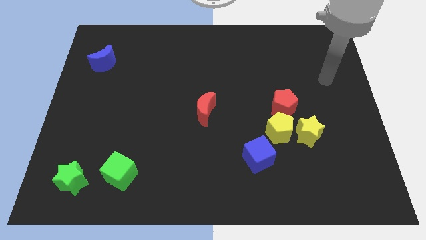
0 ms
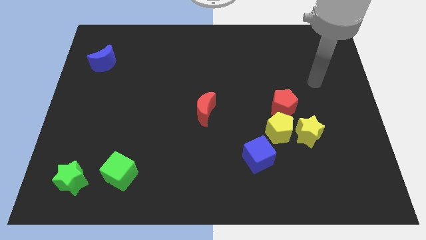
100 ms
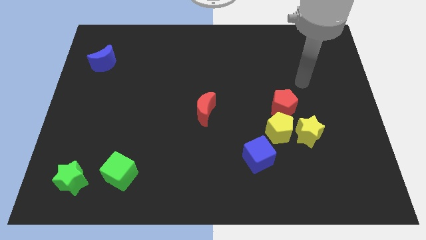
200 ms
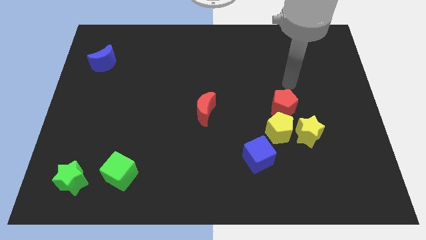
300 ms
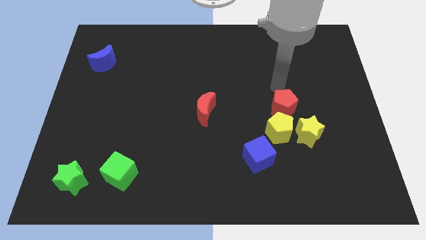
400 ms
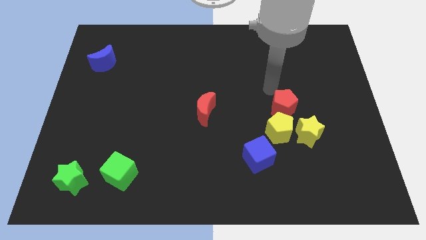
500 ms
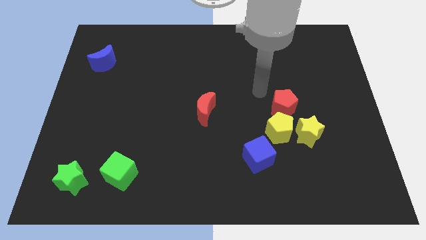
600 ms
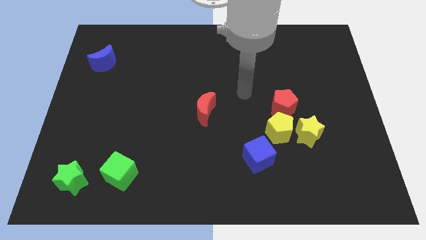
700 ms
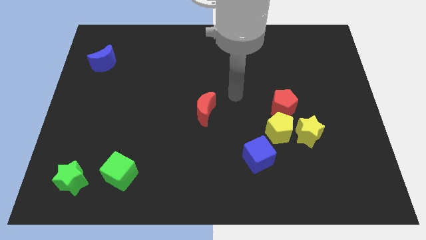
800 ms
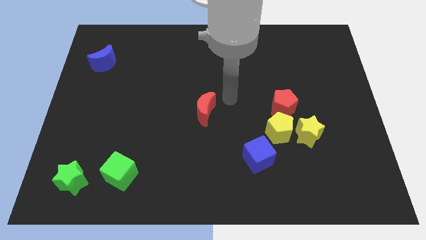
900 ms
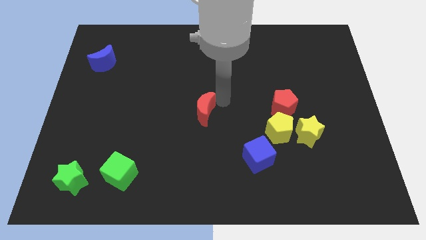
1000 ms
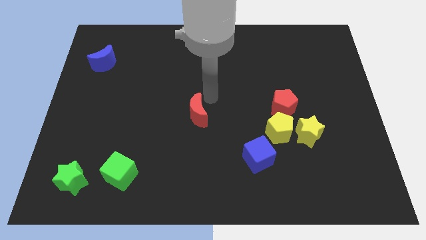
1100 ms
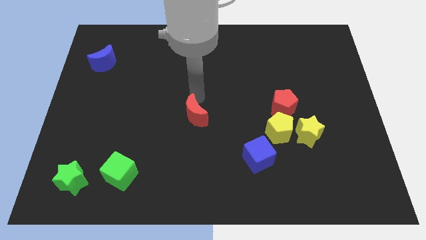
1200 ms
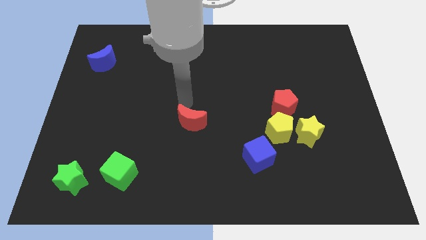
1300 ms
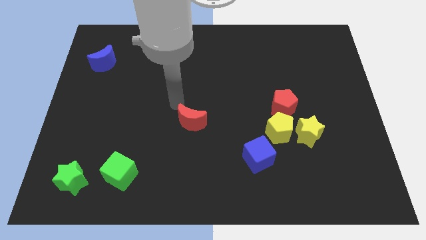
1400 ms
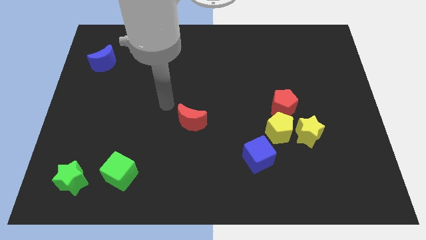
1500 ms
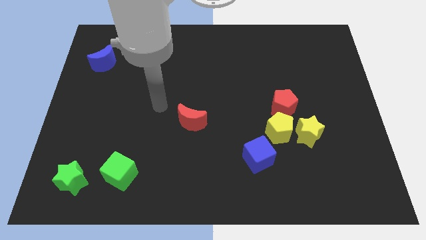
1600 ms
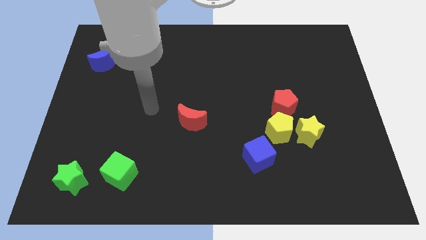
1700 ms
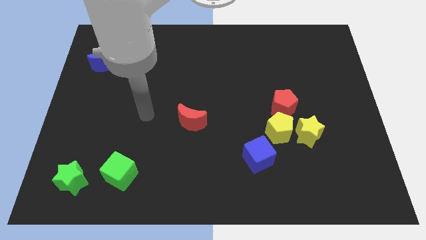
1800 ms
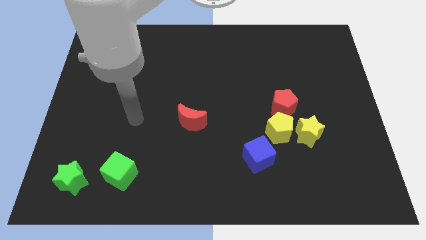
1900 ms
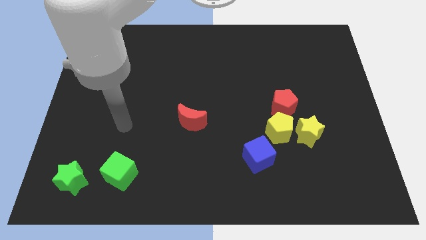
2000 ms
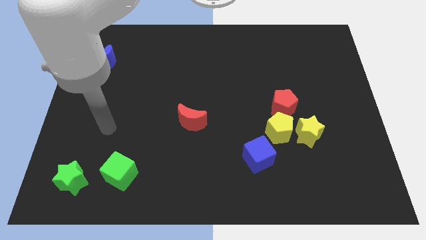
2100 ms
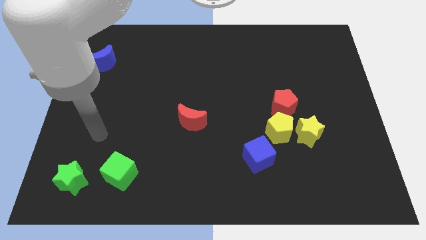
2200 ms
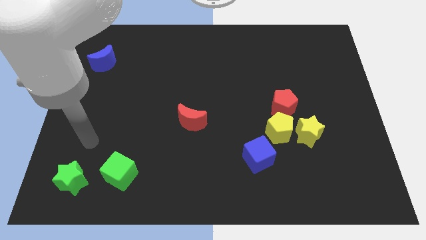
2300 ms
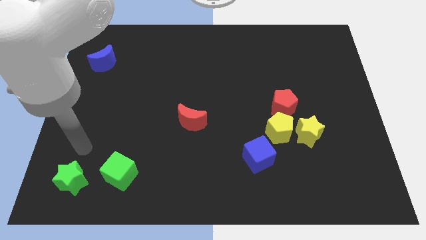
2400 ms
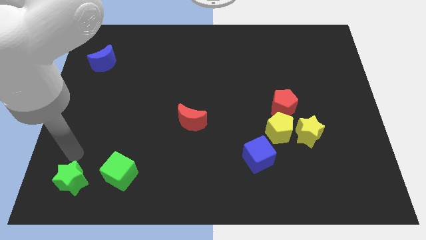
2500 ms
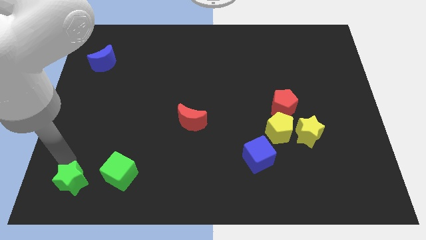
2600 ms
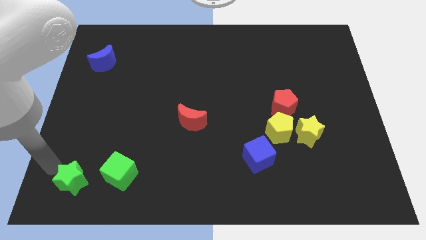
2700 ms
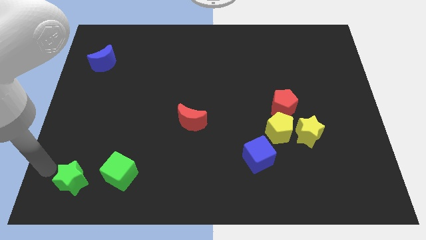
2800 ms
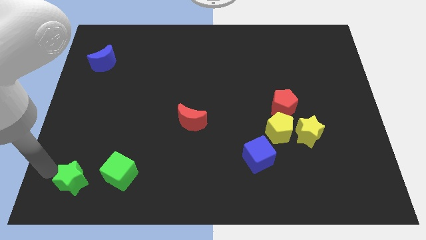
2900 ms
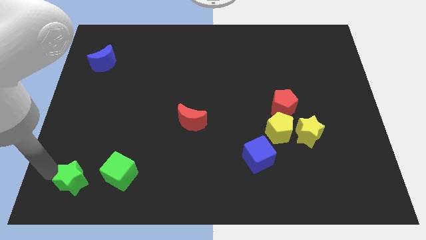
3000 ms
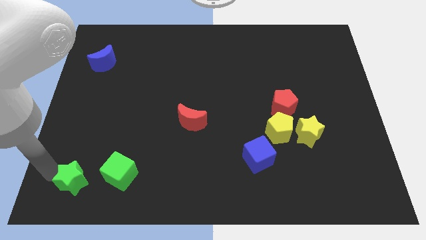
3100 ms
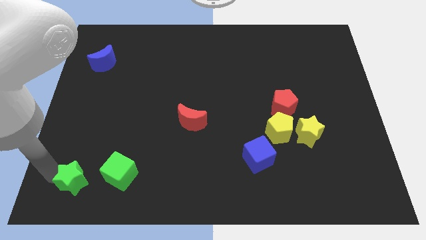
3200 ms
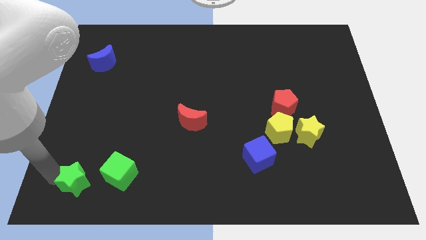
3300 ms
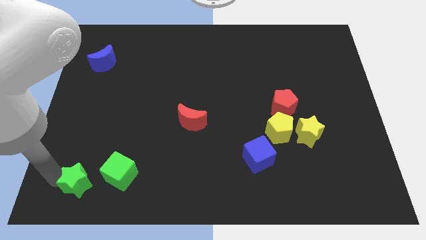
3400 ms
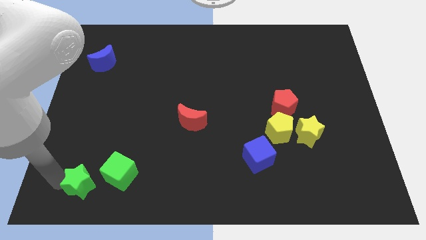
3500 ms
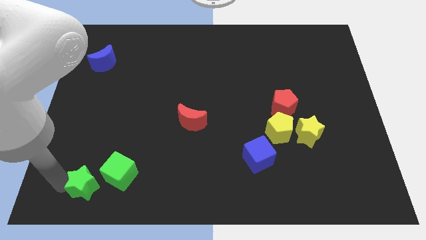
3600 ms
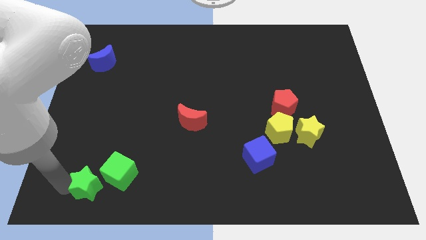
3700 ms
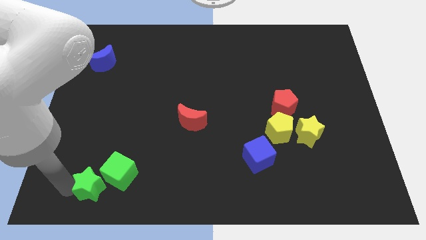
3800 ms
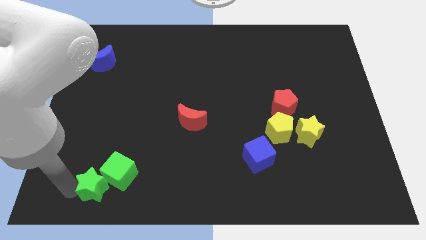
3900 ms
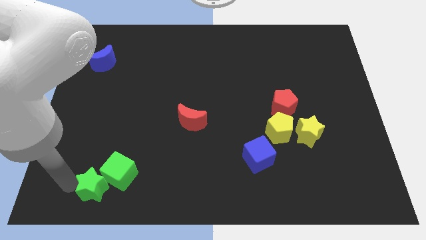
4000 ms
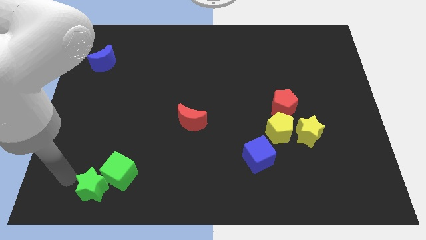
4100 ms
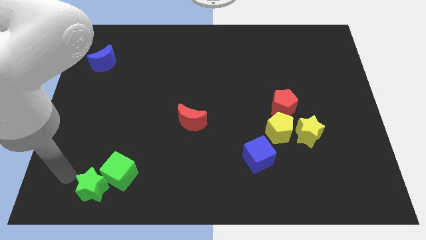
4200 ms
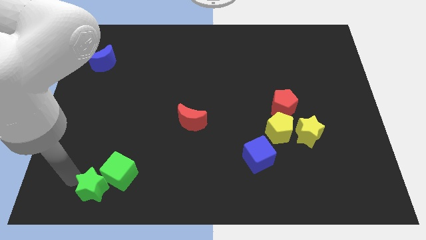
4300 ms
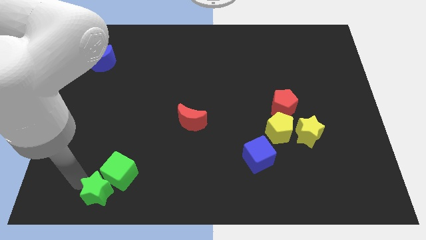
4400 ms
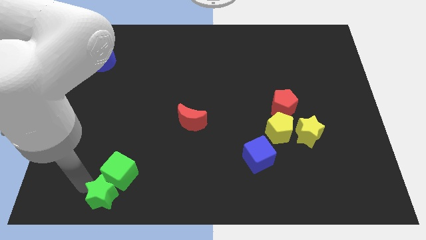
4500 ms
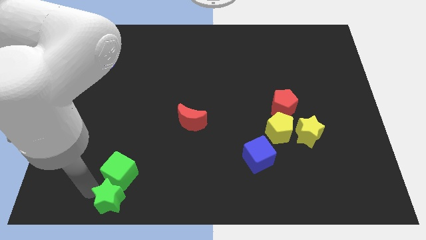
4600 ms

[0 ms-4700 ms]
move the green star somewhat to the right

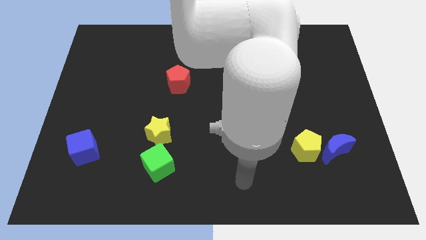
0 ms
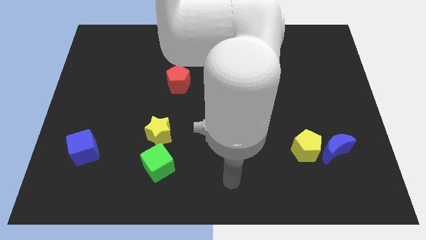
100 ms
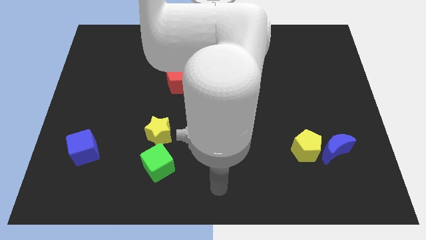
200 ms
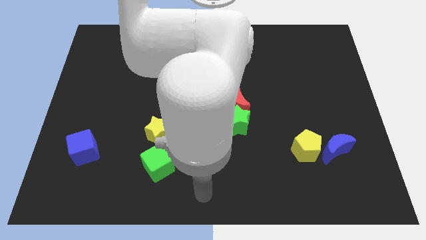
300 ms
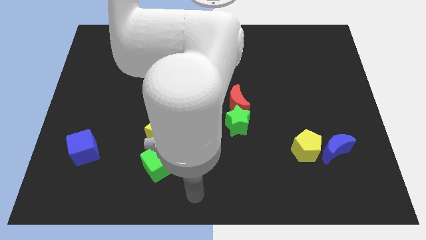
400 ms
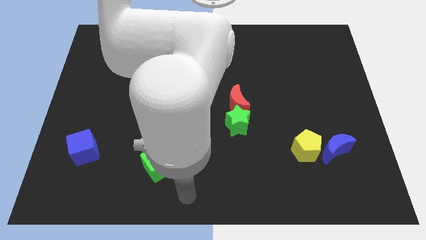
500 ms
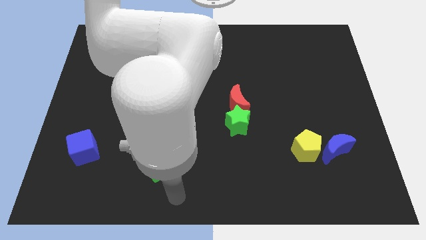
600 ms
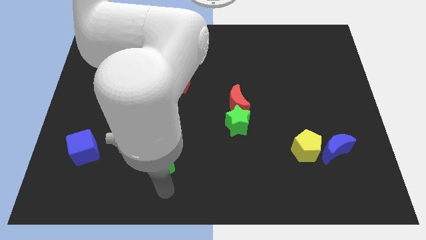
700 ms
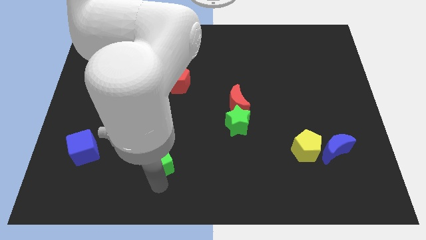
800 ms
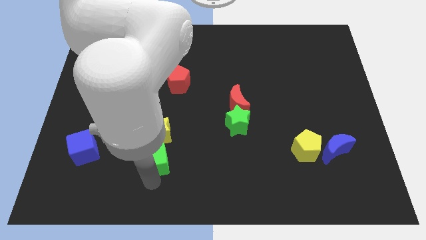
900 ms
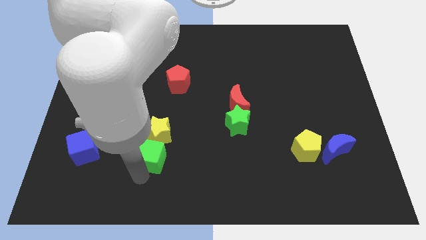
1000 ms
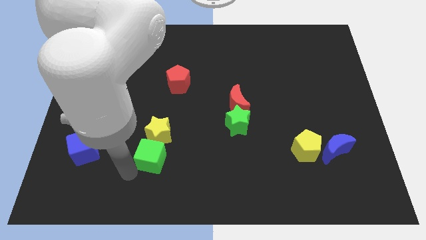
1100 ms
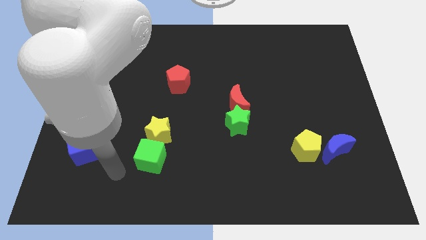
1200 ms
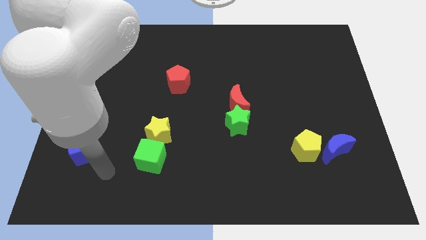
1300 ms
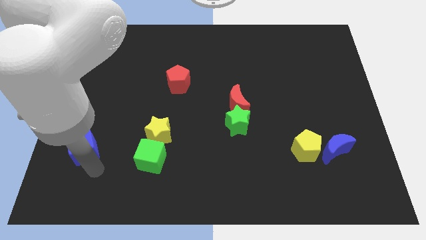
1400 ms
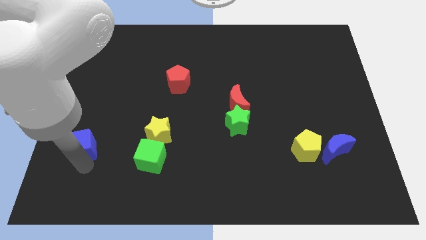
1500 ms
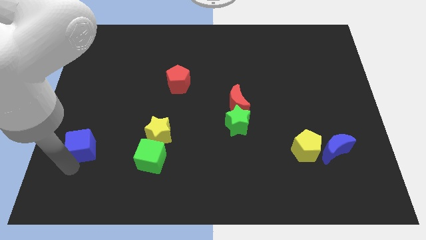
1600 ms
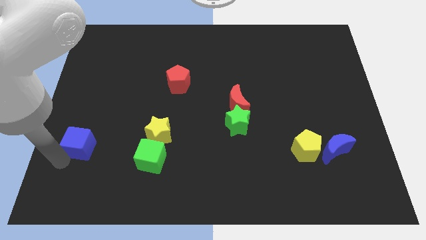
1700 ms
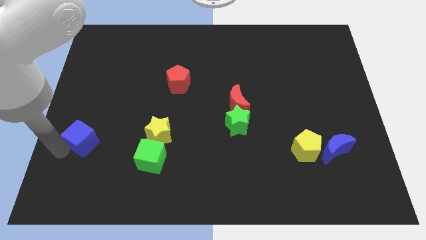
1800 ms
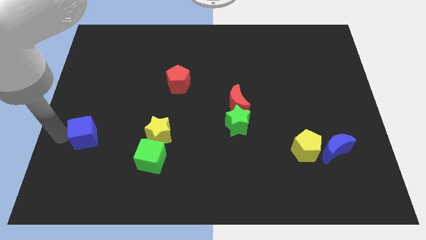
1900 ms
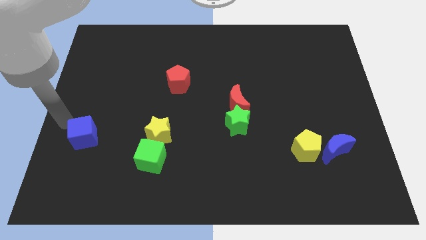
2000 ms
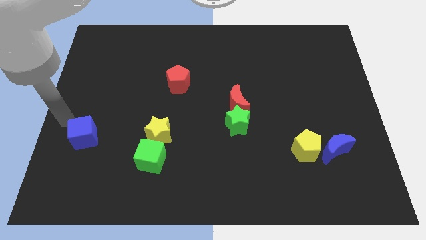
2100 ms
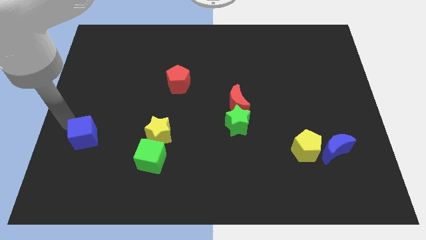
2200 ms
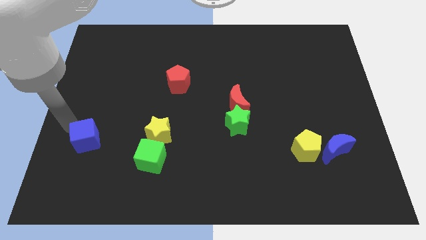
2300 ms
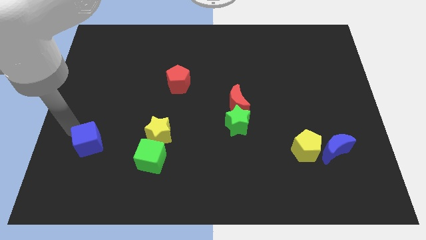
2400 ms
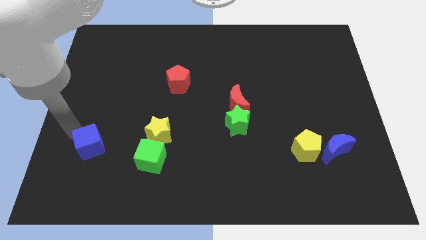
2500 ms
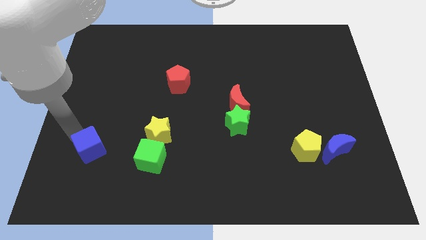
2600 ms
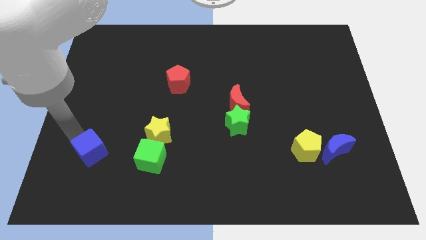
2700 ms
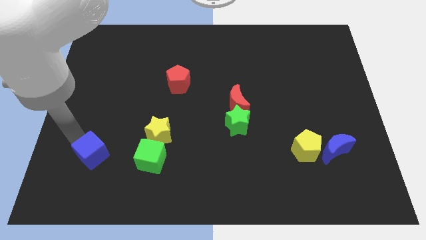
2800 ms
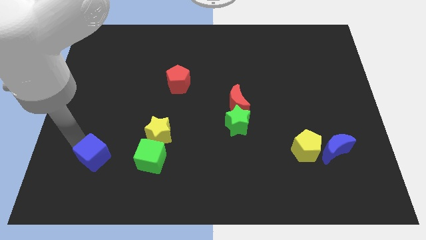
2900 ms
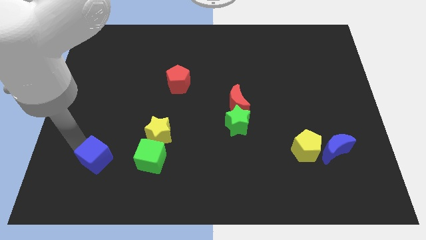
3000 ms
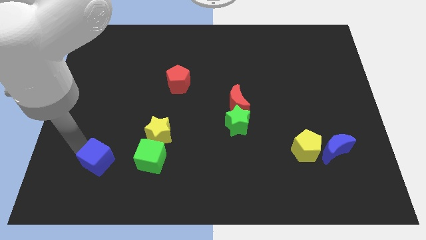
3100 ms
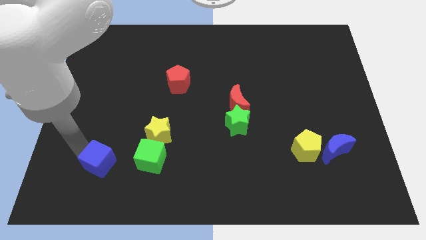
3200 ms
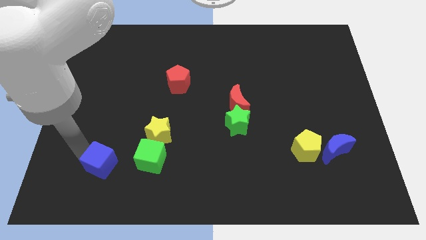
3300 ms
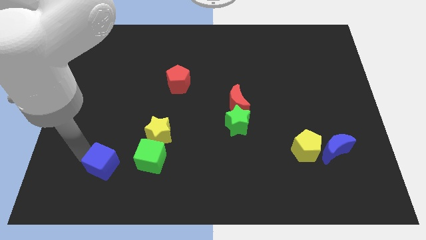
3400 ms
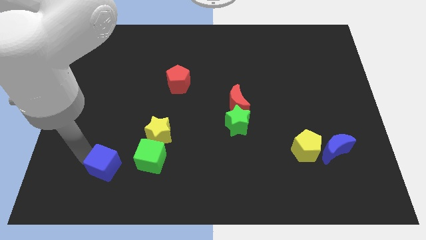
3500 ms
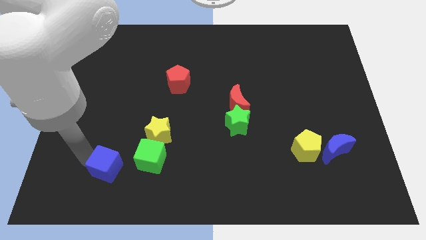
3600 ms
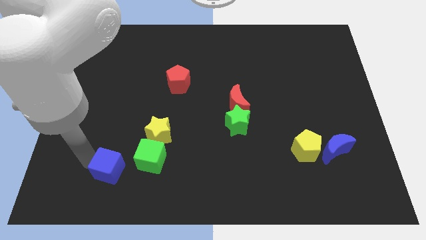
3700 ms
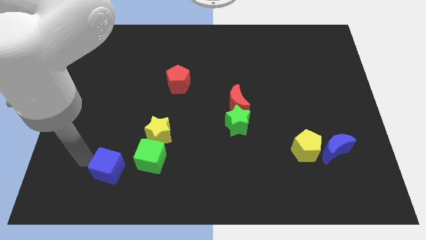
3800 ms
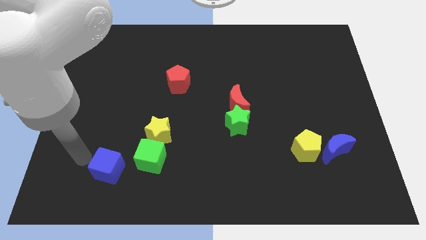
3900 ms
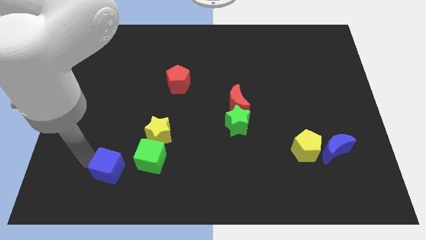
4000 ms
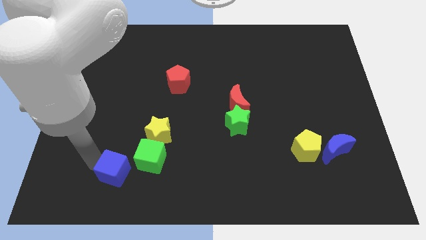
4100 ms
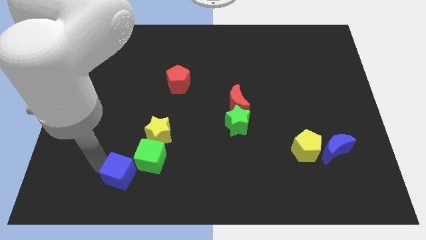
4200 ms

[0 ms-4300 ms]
slide the blue cube slightly right
